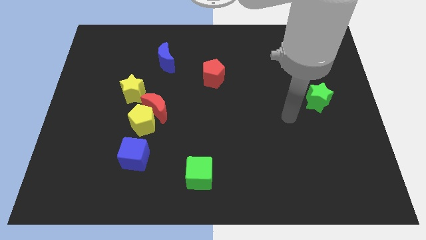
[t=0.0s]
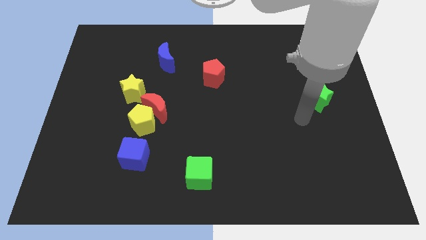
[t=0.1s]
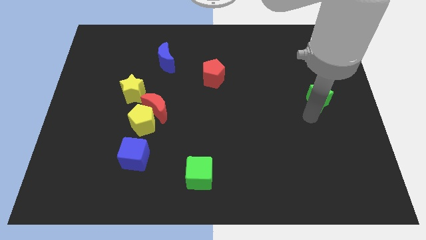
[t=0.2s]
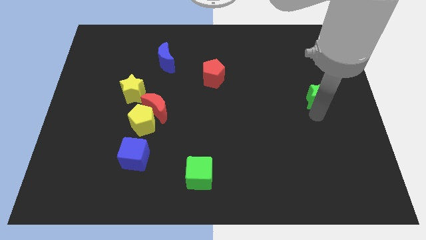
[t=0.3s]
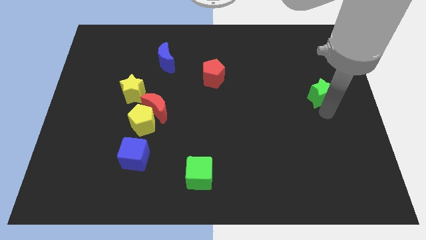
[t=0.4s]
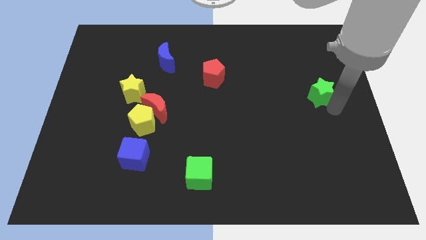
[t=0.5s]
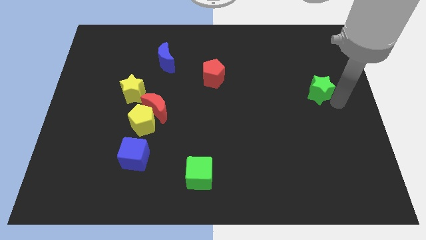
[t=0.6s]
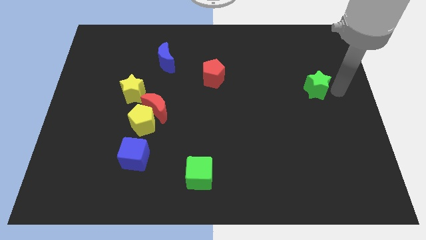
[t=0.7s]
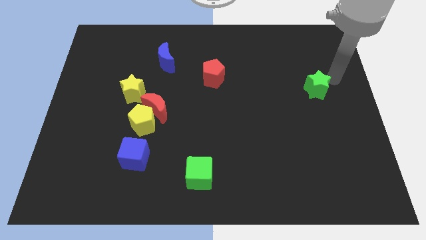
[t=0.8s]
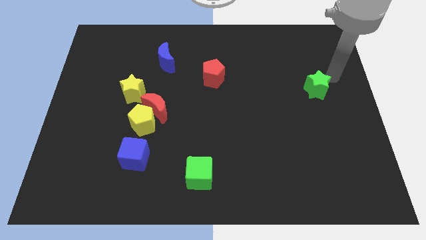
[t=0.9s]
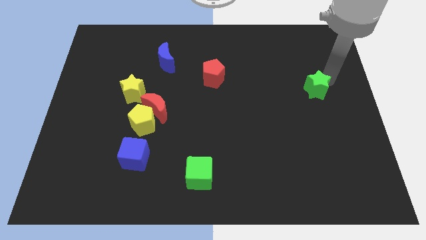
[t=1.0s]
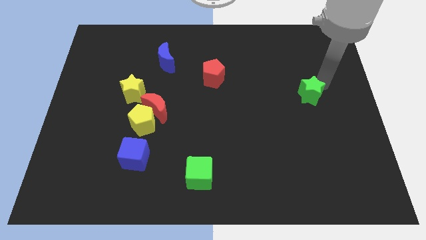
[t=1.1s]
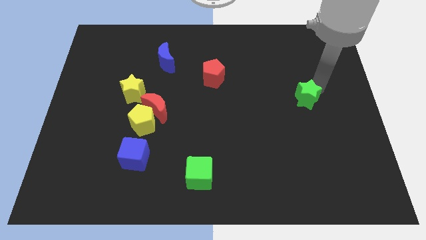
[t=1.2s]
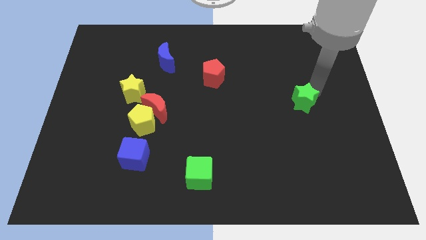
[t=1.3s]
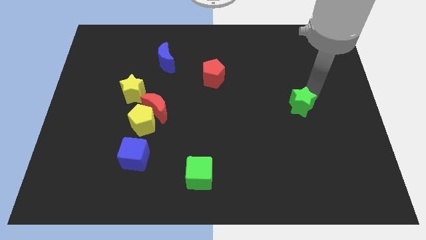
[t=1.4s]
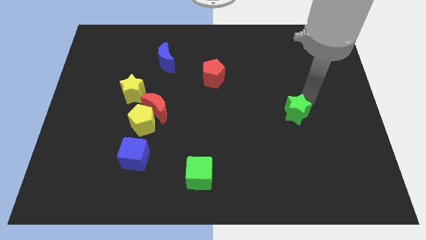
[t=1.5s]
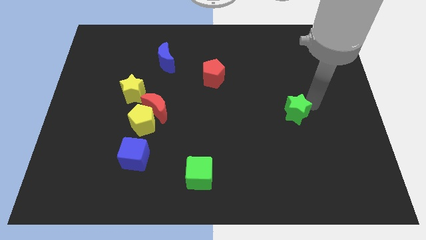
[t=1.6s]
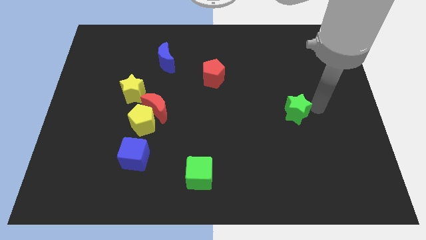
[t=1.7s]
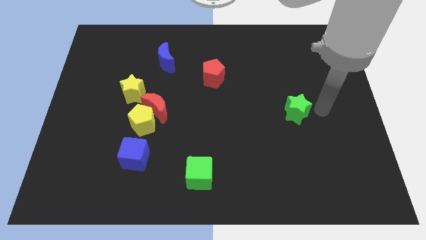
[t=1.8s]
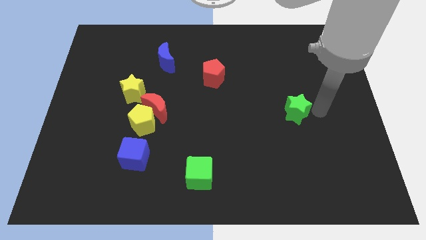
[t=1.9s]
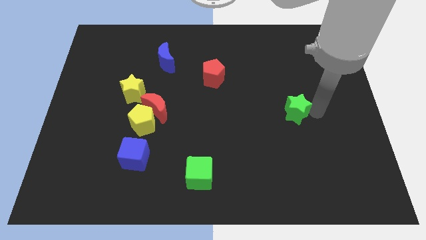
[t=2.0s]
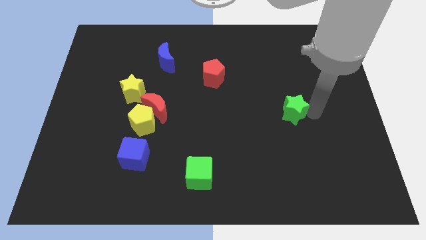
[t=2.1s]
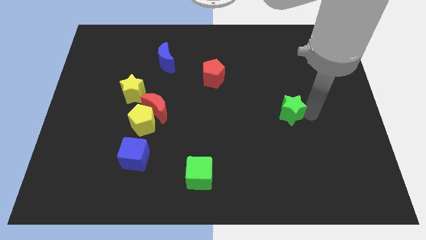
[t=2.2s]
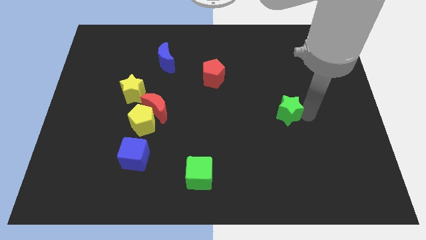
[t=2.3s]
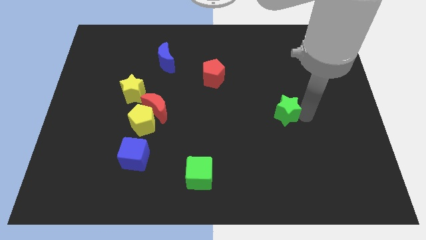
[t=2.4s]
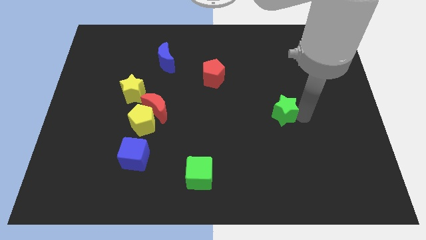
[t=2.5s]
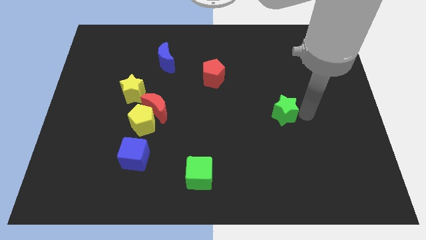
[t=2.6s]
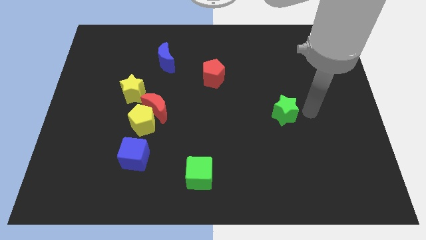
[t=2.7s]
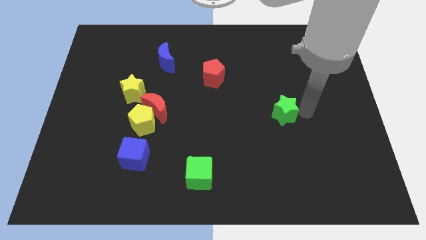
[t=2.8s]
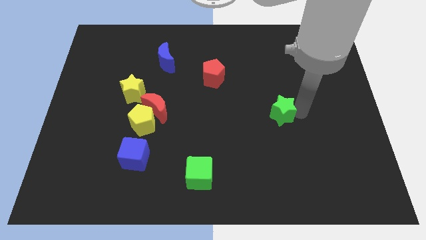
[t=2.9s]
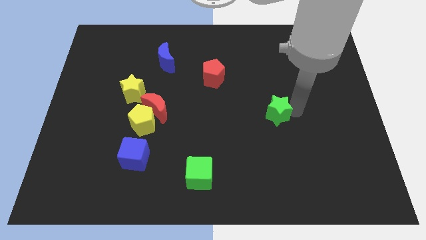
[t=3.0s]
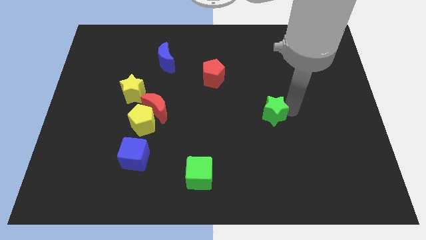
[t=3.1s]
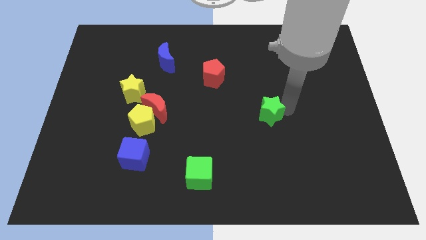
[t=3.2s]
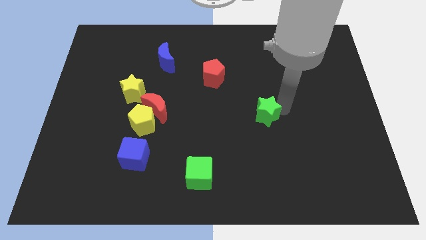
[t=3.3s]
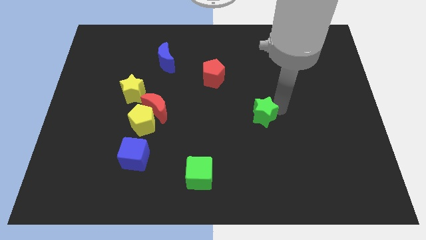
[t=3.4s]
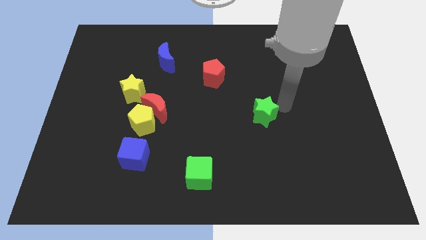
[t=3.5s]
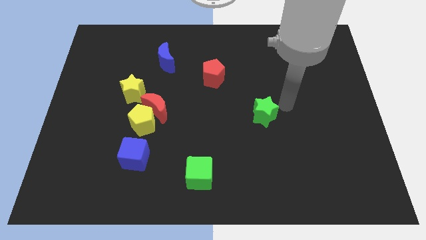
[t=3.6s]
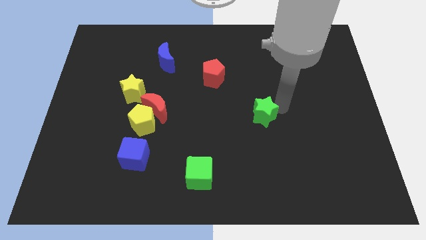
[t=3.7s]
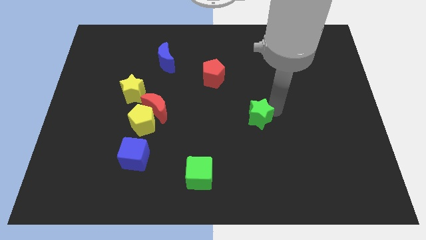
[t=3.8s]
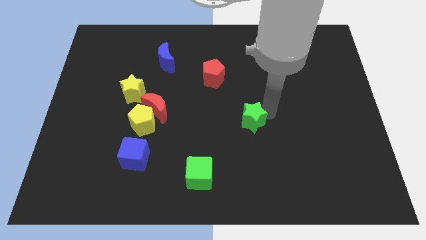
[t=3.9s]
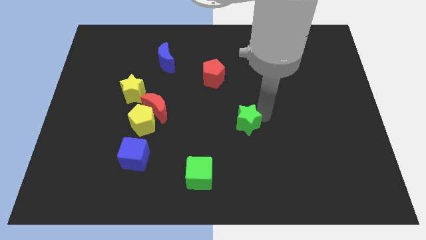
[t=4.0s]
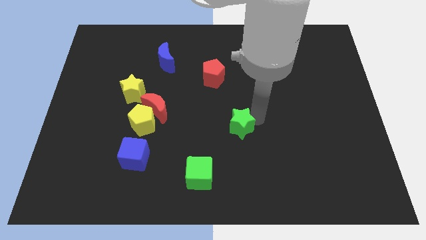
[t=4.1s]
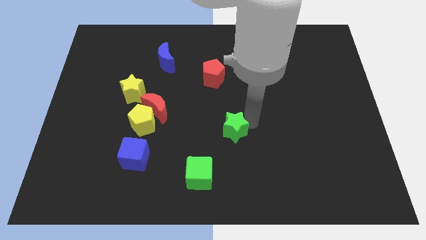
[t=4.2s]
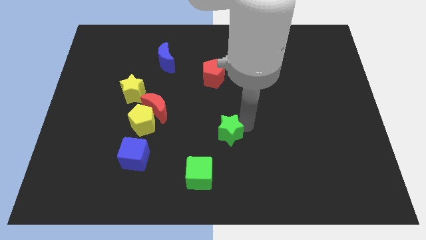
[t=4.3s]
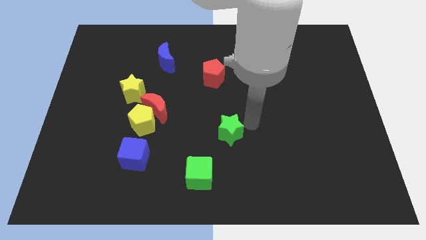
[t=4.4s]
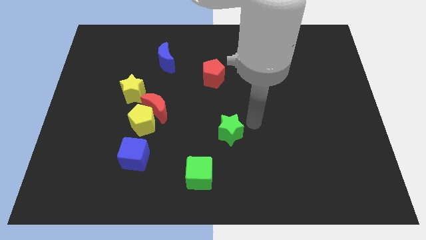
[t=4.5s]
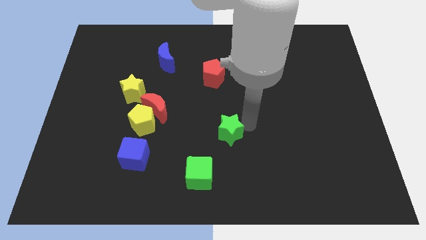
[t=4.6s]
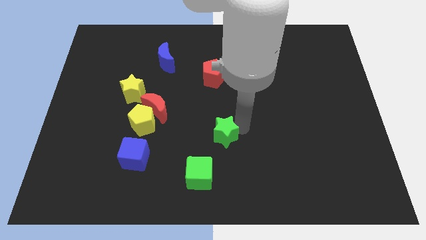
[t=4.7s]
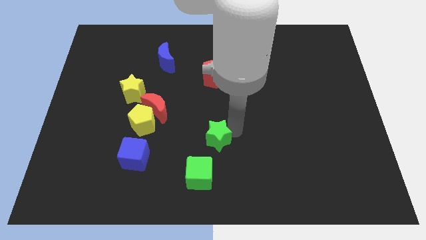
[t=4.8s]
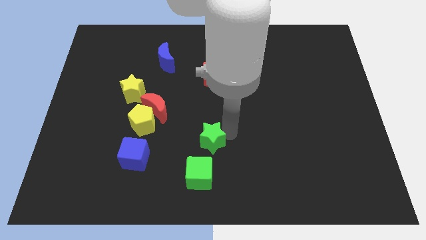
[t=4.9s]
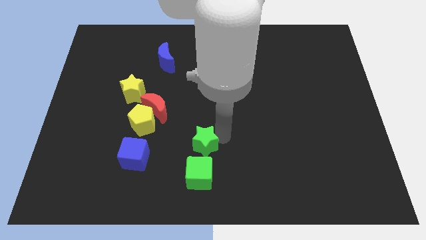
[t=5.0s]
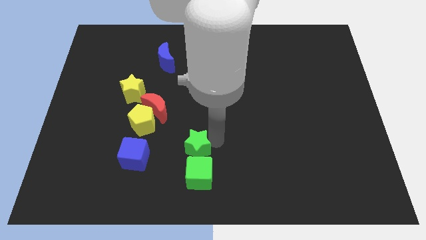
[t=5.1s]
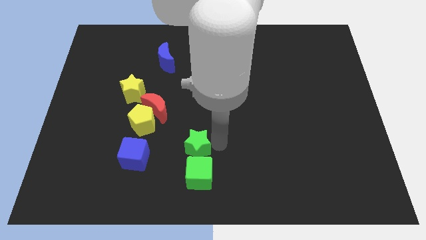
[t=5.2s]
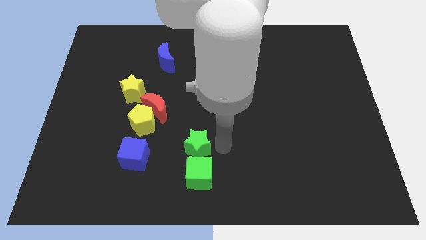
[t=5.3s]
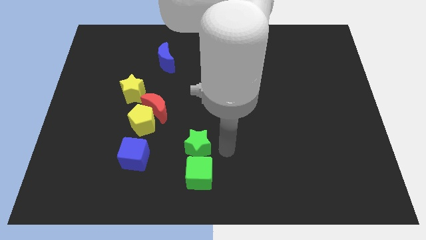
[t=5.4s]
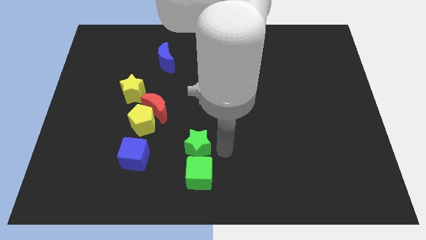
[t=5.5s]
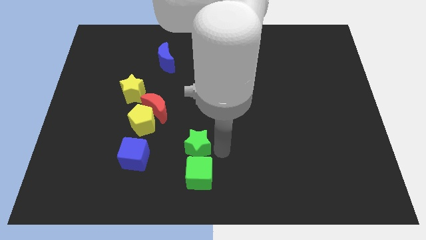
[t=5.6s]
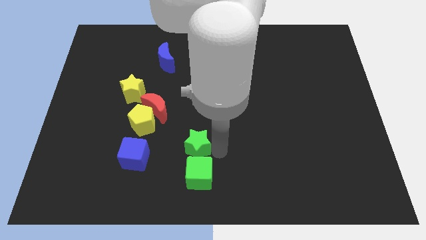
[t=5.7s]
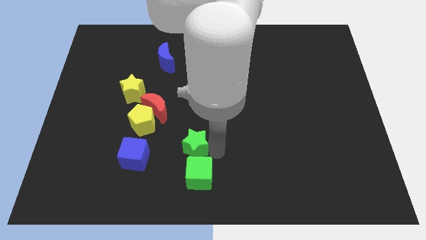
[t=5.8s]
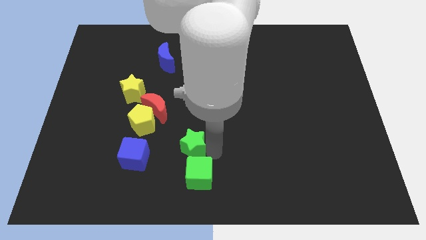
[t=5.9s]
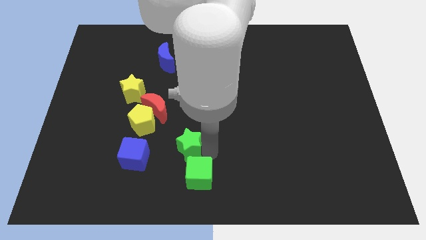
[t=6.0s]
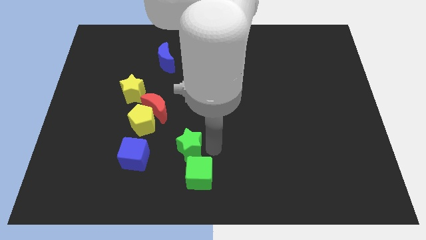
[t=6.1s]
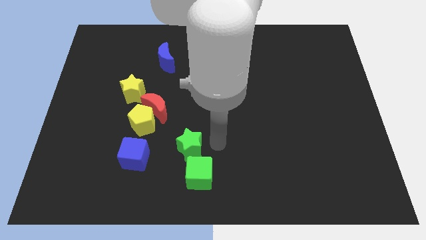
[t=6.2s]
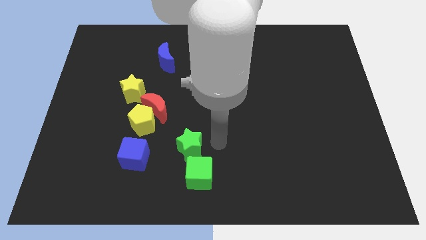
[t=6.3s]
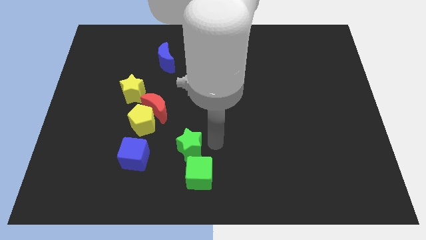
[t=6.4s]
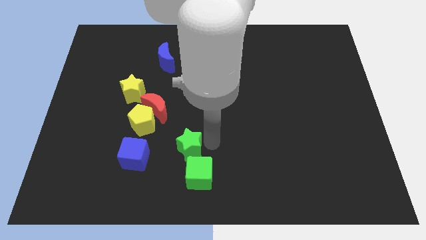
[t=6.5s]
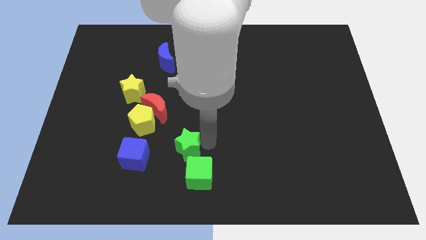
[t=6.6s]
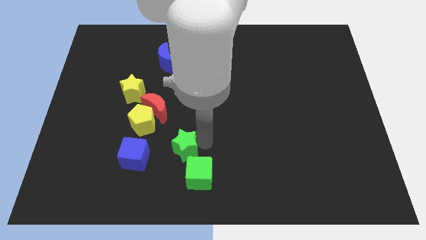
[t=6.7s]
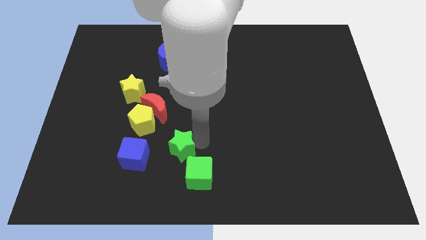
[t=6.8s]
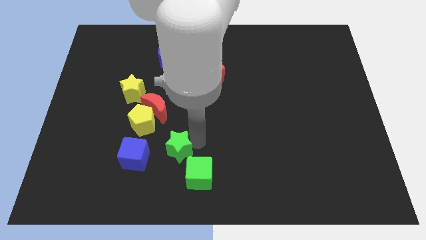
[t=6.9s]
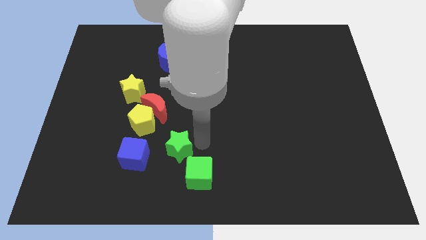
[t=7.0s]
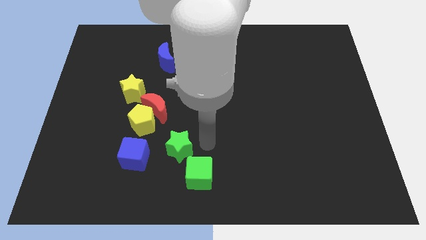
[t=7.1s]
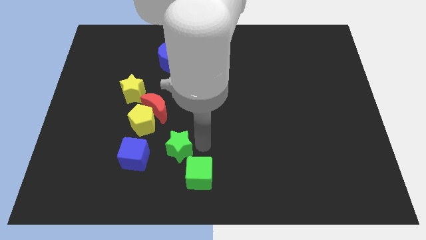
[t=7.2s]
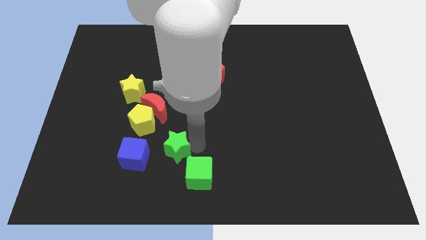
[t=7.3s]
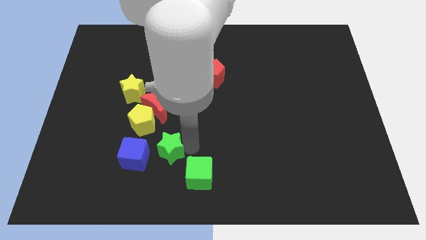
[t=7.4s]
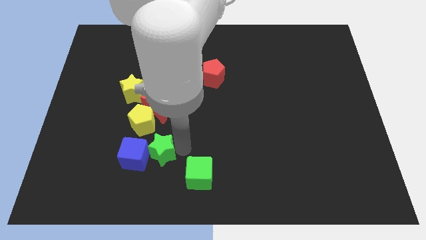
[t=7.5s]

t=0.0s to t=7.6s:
move the green star to the blue cube
